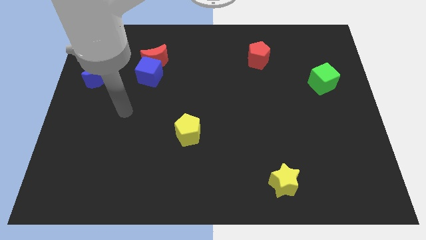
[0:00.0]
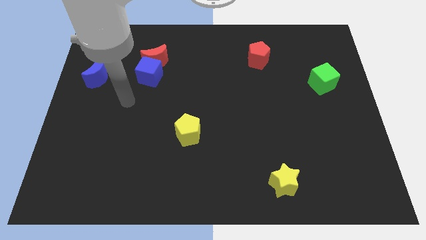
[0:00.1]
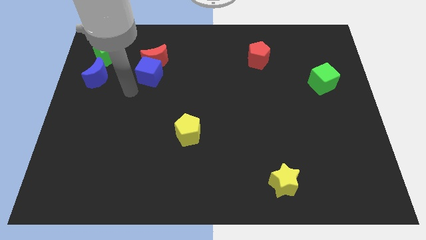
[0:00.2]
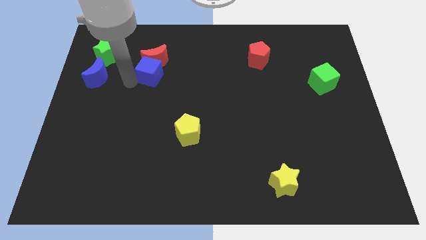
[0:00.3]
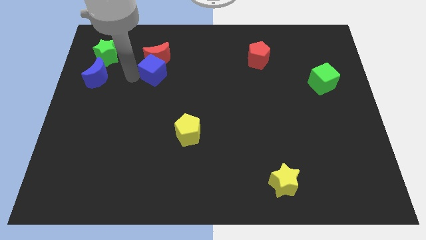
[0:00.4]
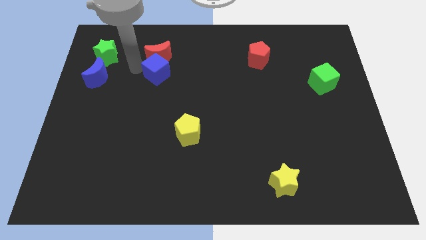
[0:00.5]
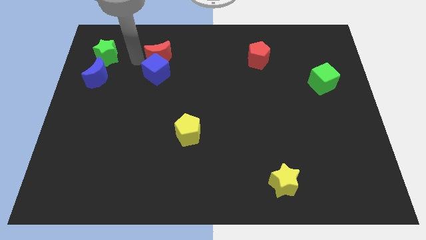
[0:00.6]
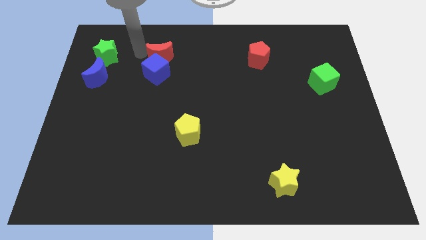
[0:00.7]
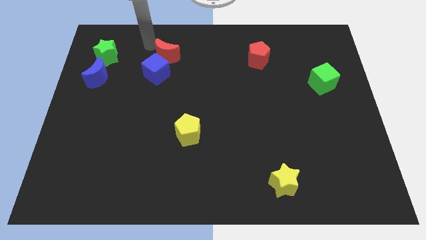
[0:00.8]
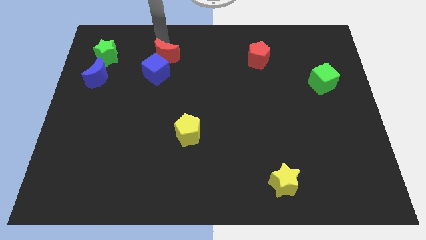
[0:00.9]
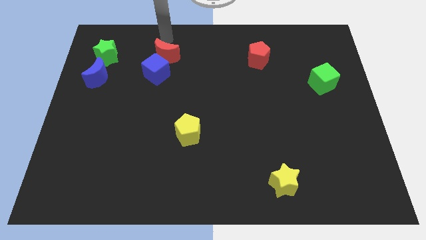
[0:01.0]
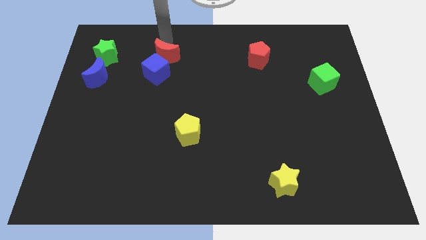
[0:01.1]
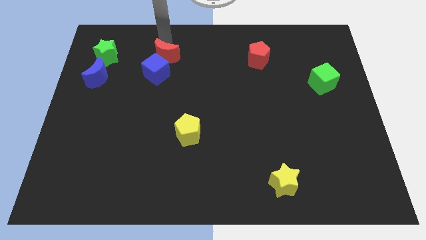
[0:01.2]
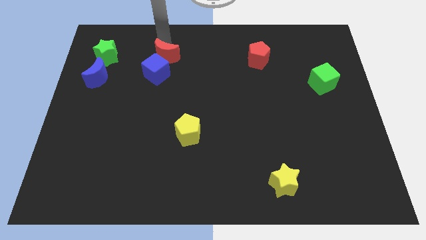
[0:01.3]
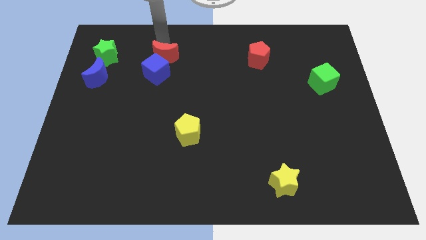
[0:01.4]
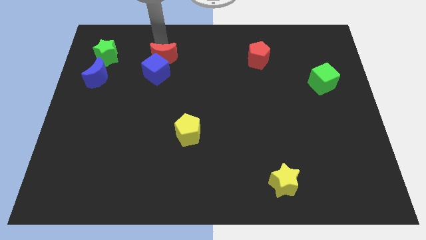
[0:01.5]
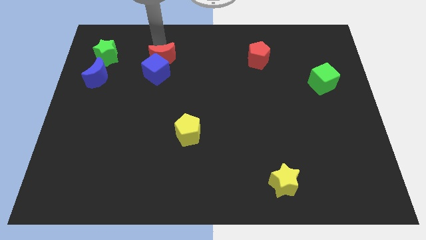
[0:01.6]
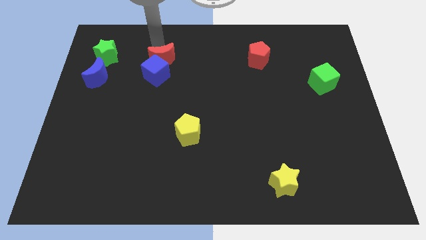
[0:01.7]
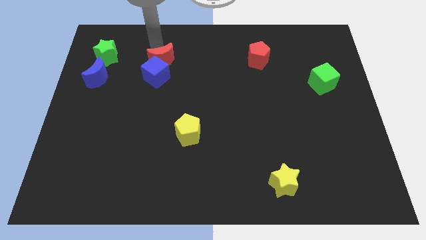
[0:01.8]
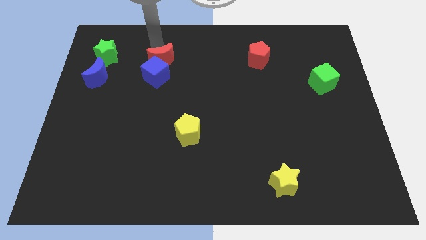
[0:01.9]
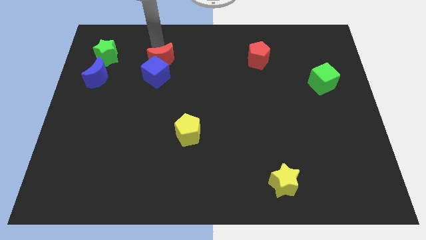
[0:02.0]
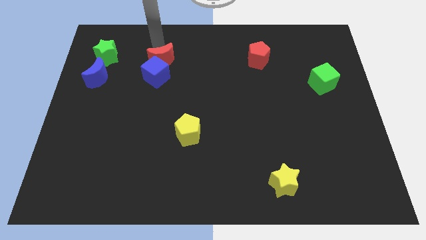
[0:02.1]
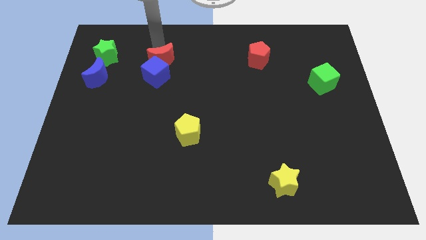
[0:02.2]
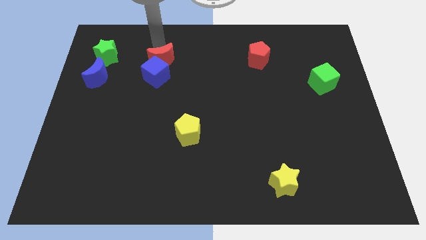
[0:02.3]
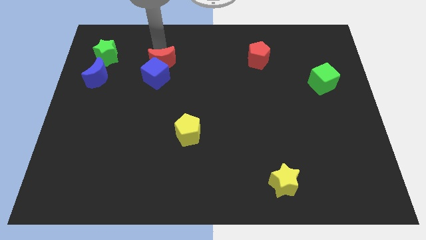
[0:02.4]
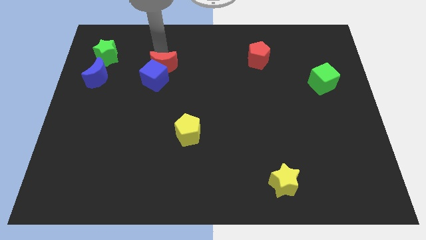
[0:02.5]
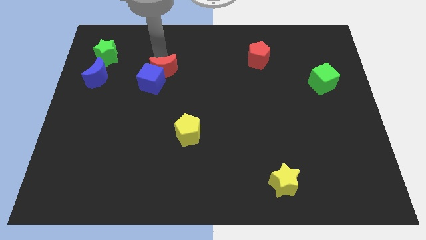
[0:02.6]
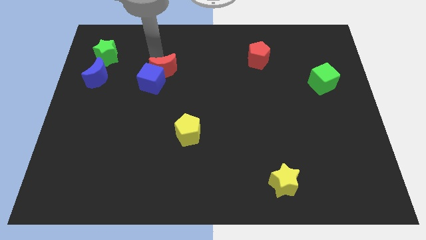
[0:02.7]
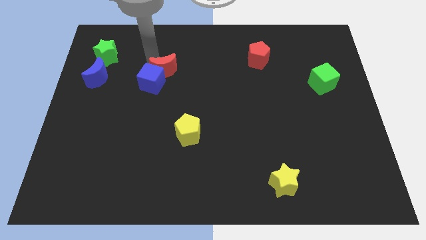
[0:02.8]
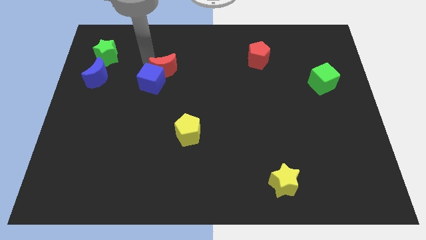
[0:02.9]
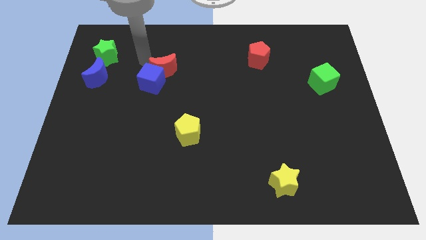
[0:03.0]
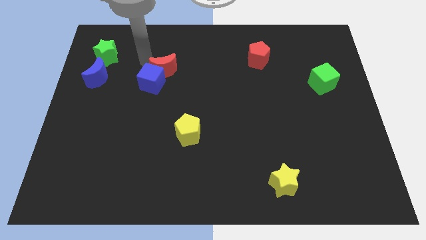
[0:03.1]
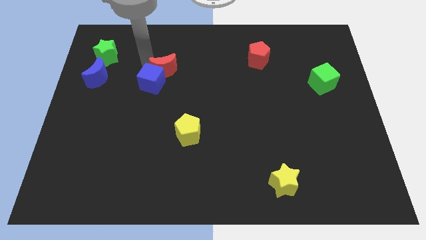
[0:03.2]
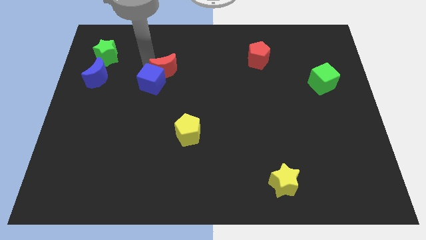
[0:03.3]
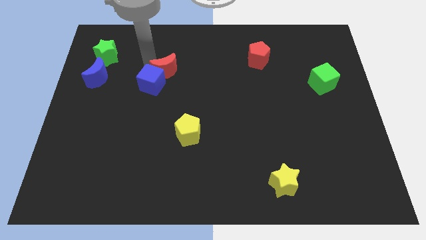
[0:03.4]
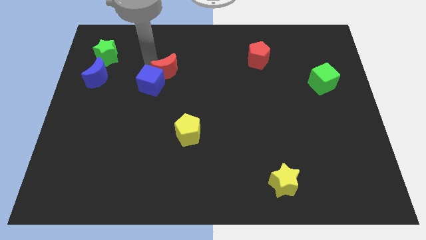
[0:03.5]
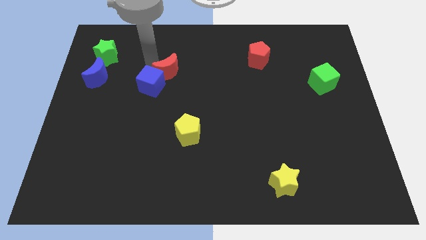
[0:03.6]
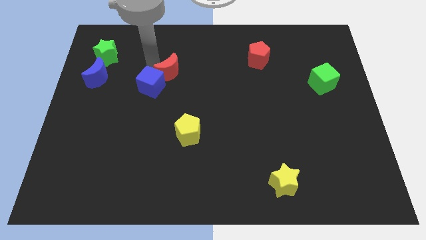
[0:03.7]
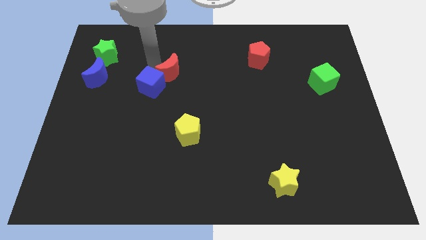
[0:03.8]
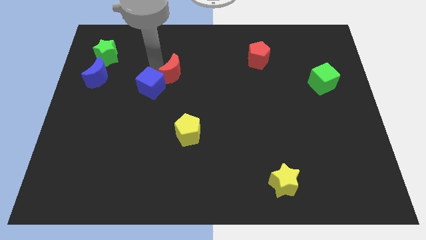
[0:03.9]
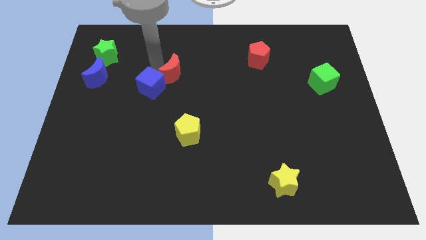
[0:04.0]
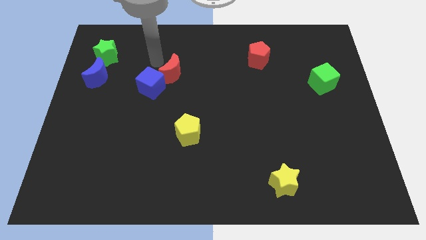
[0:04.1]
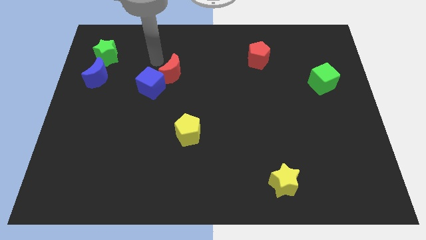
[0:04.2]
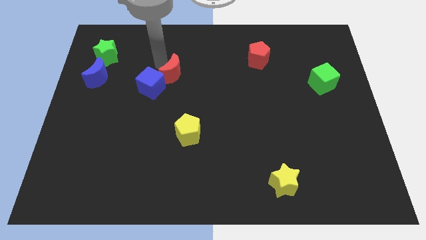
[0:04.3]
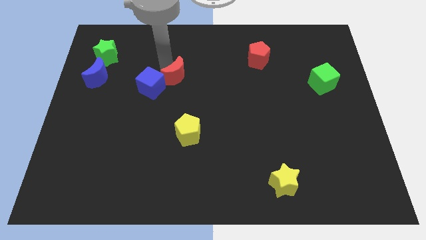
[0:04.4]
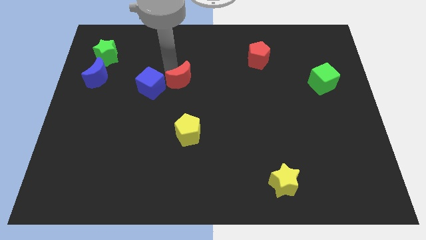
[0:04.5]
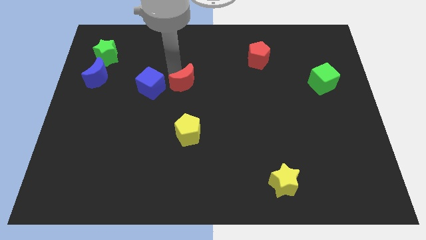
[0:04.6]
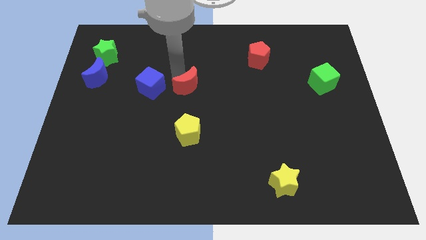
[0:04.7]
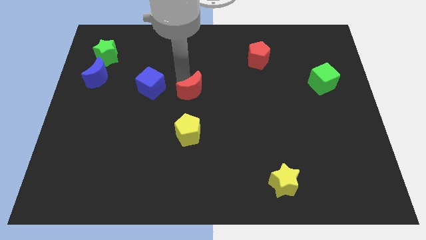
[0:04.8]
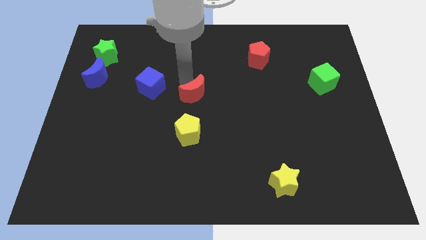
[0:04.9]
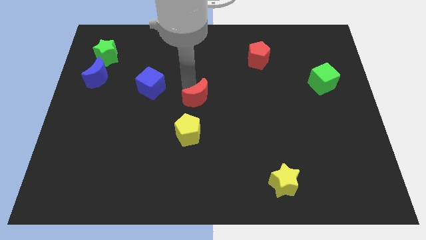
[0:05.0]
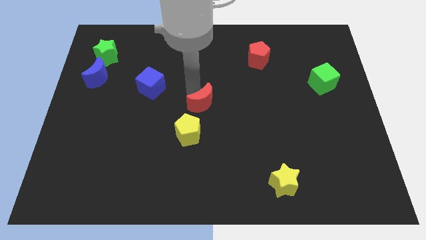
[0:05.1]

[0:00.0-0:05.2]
push the red moon diagonally up and to the right of the yellow pentagon

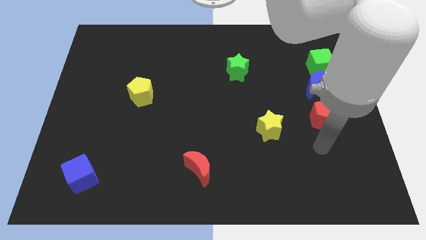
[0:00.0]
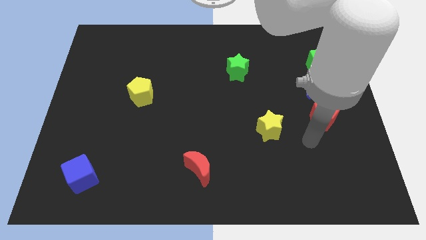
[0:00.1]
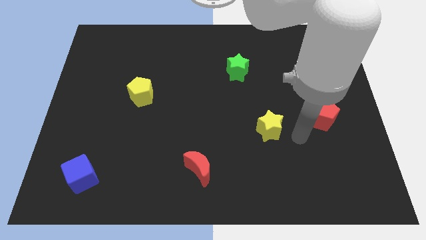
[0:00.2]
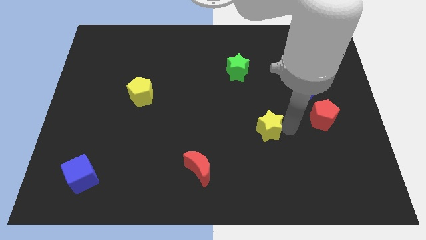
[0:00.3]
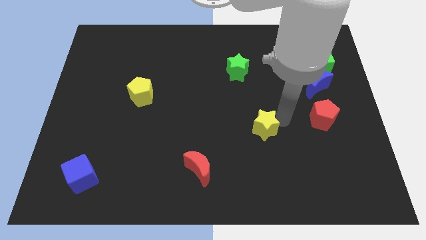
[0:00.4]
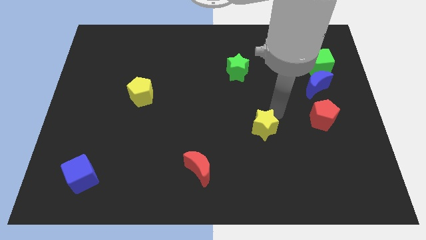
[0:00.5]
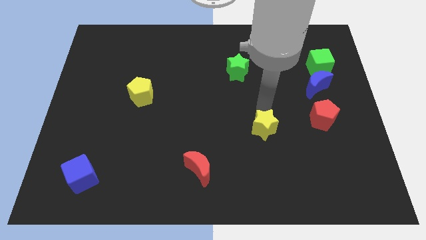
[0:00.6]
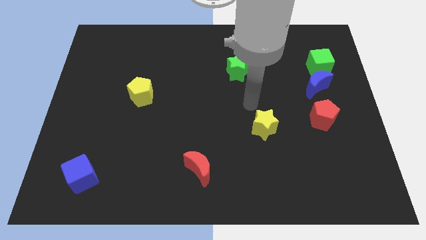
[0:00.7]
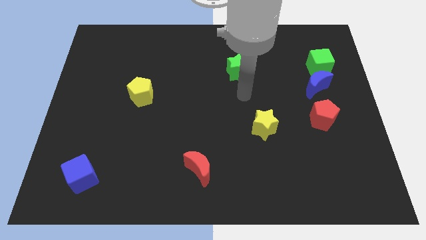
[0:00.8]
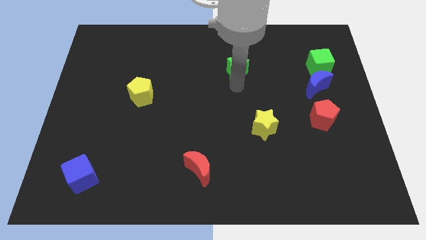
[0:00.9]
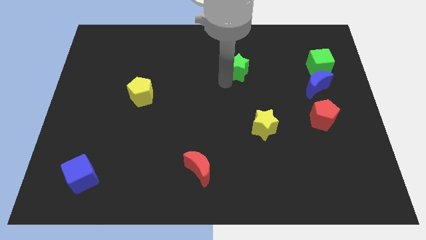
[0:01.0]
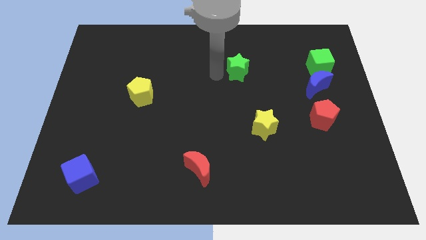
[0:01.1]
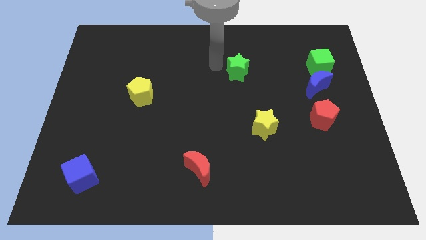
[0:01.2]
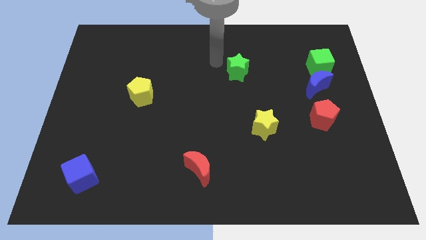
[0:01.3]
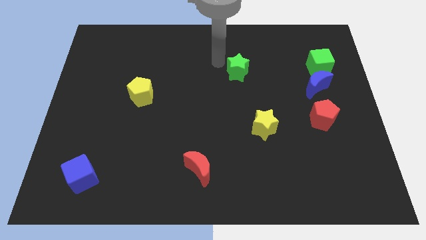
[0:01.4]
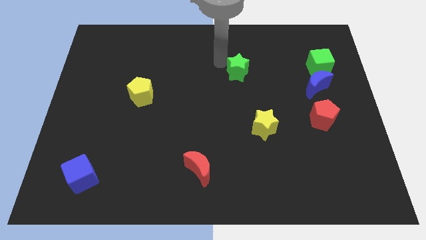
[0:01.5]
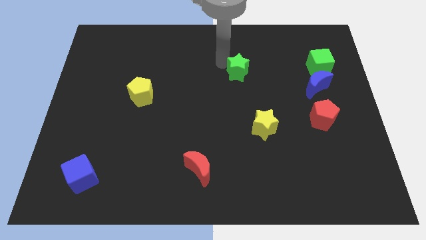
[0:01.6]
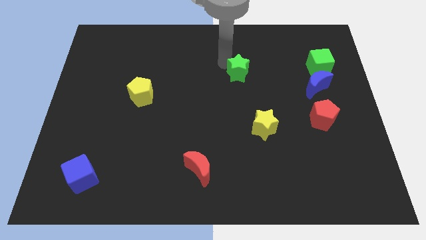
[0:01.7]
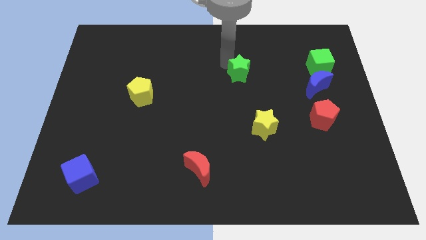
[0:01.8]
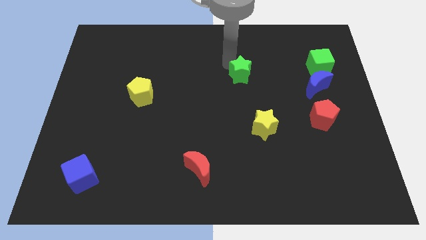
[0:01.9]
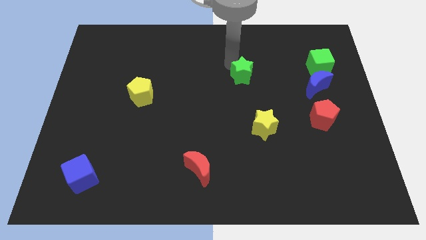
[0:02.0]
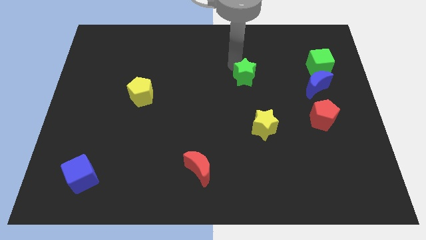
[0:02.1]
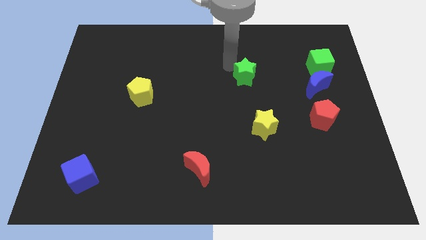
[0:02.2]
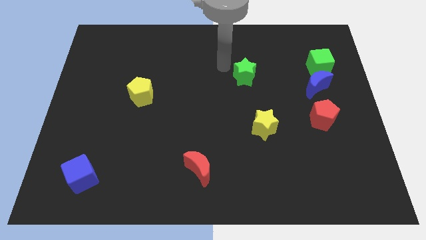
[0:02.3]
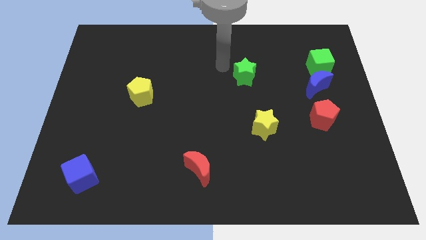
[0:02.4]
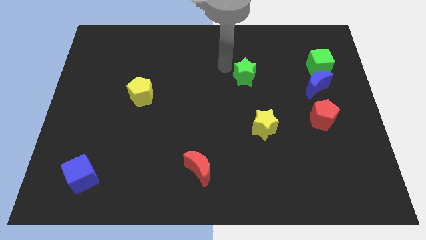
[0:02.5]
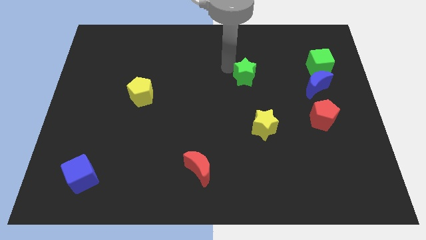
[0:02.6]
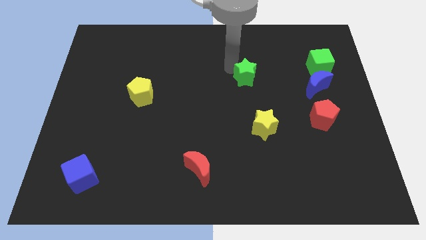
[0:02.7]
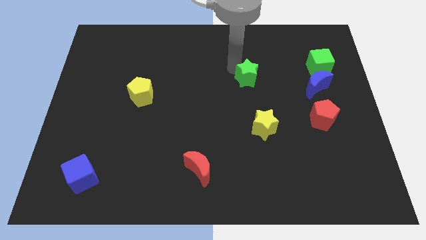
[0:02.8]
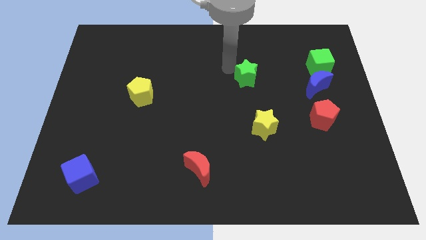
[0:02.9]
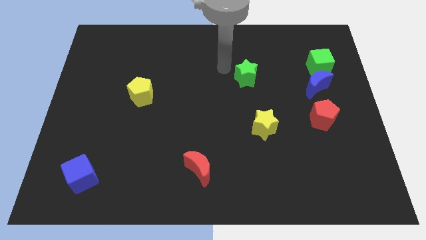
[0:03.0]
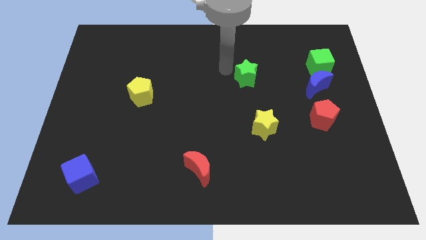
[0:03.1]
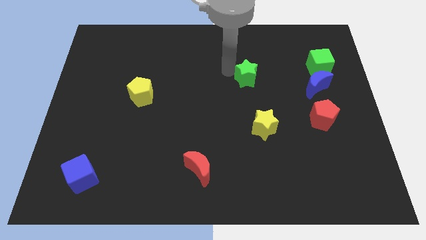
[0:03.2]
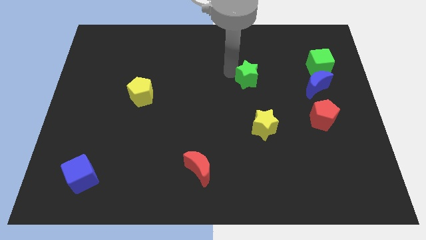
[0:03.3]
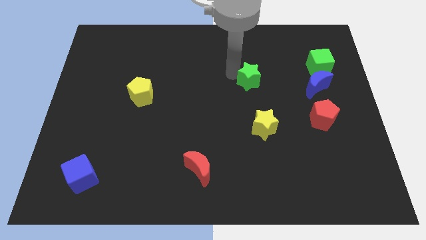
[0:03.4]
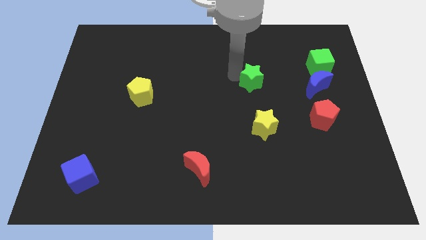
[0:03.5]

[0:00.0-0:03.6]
put the green star to the left of the blue moon
